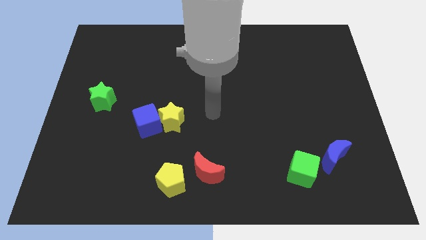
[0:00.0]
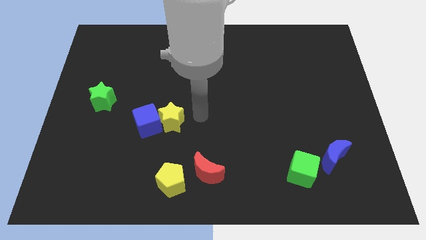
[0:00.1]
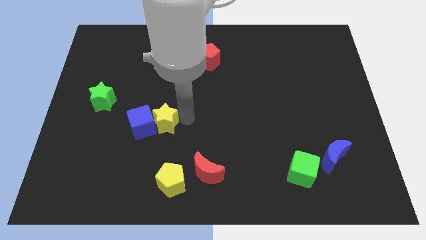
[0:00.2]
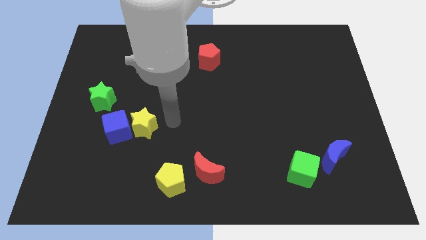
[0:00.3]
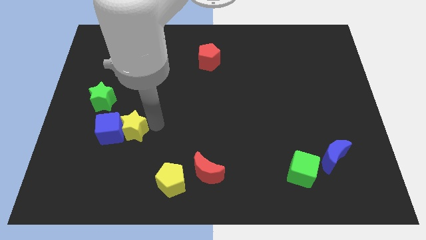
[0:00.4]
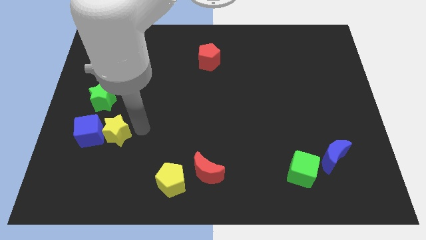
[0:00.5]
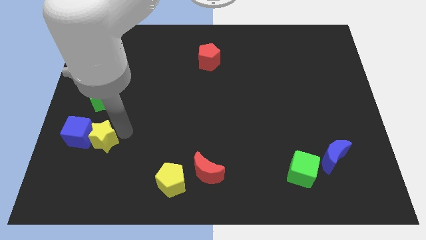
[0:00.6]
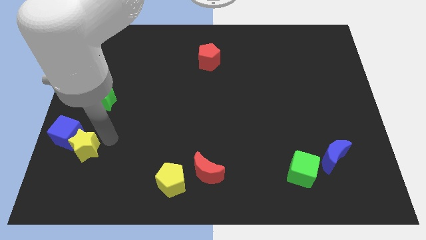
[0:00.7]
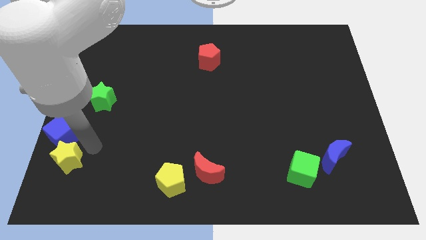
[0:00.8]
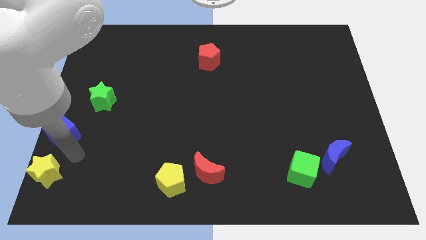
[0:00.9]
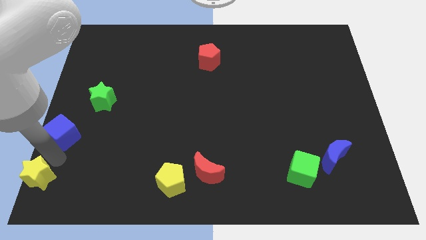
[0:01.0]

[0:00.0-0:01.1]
move the blue cube away from the yellow star

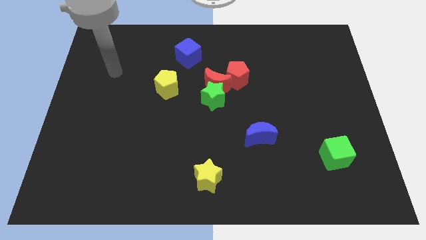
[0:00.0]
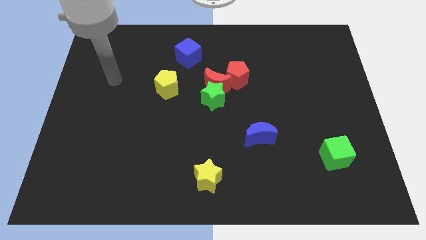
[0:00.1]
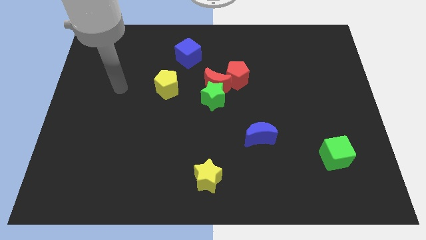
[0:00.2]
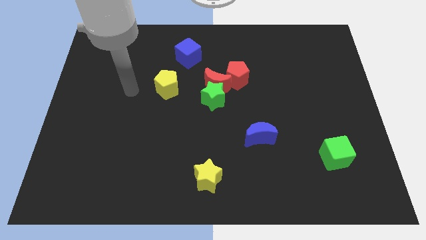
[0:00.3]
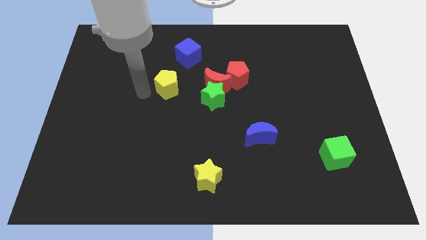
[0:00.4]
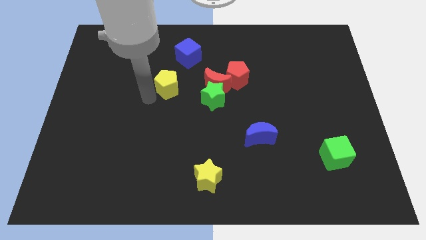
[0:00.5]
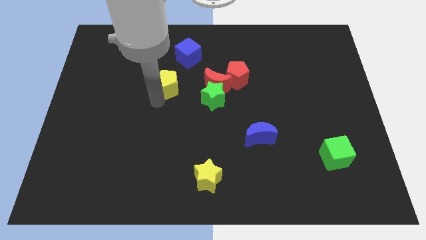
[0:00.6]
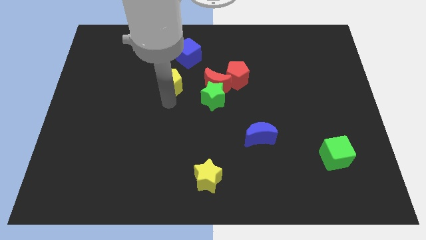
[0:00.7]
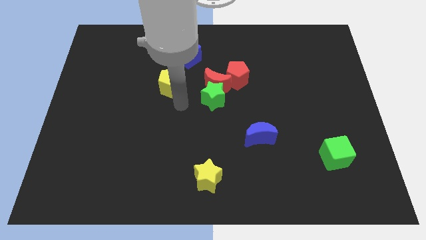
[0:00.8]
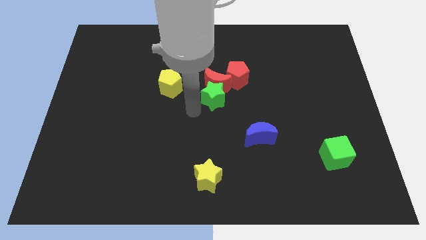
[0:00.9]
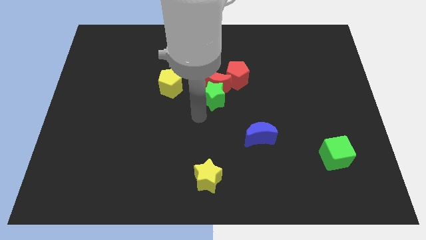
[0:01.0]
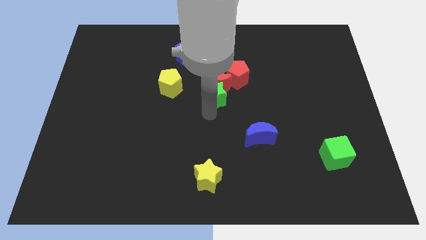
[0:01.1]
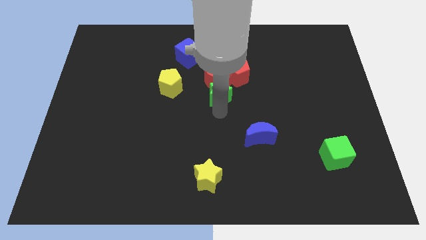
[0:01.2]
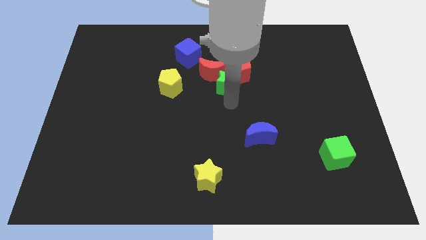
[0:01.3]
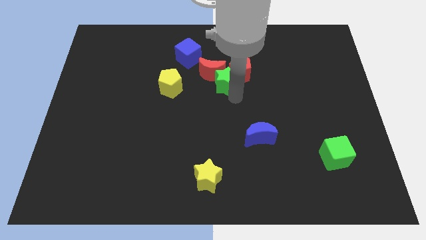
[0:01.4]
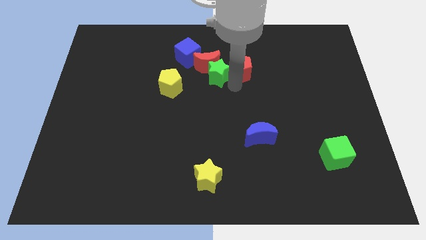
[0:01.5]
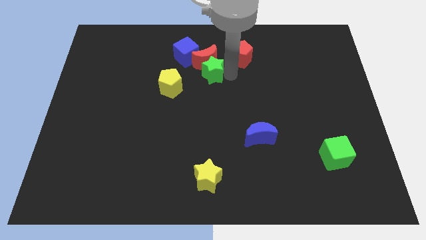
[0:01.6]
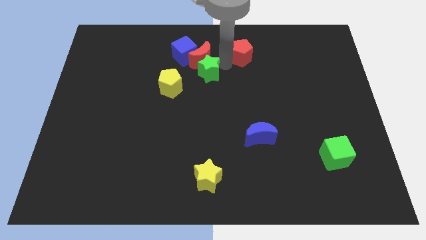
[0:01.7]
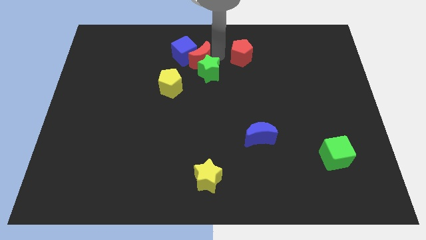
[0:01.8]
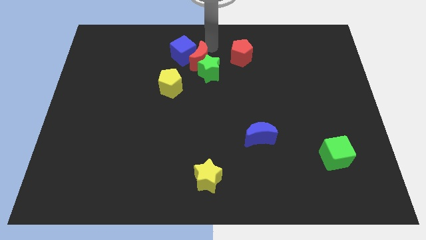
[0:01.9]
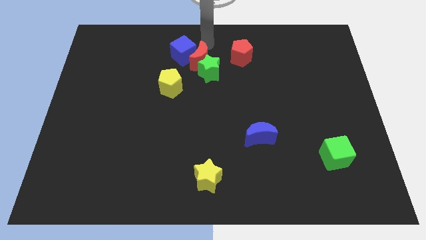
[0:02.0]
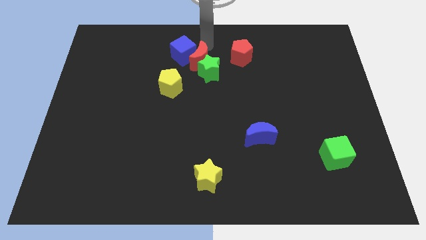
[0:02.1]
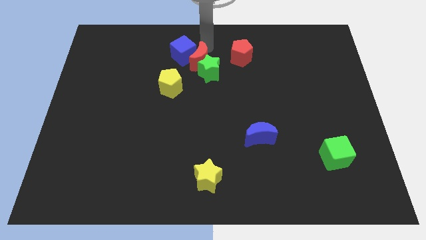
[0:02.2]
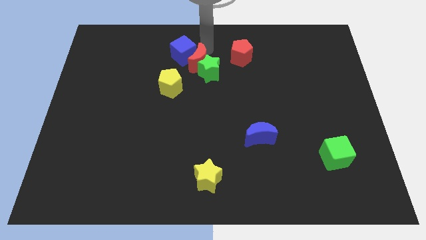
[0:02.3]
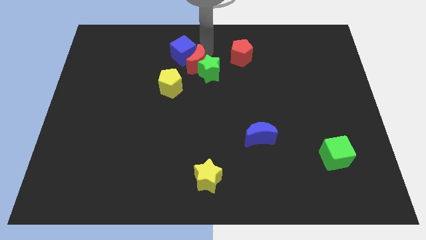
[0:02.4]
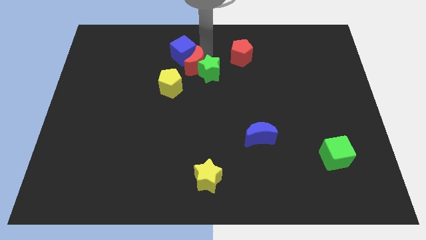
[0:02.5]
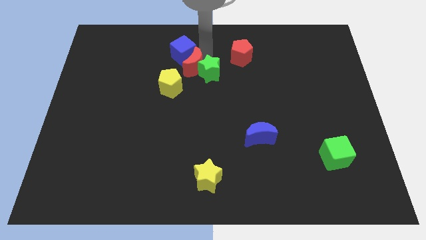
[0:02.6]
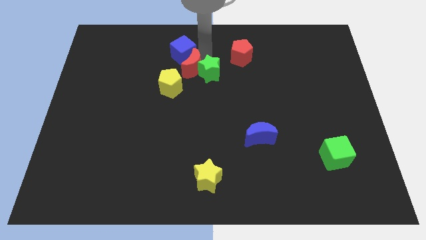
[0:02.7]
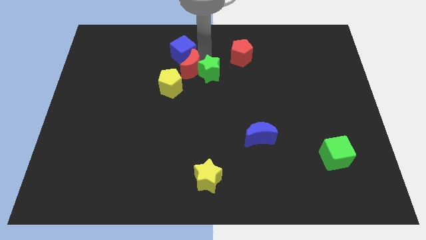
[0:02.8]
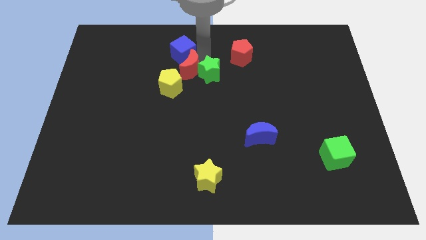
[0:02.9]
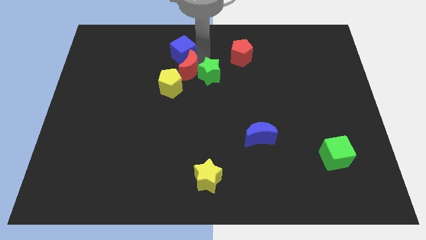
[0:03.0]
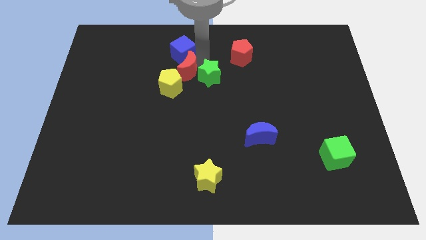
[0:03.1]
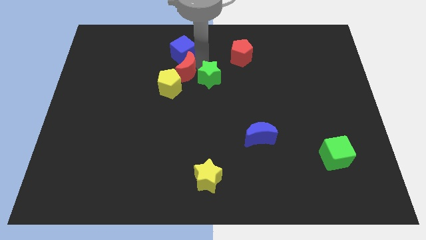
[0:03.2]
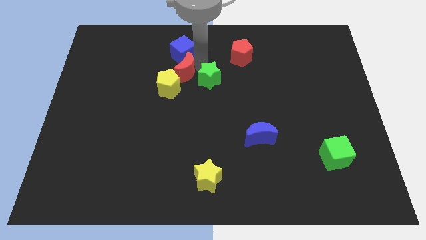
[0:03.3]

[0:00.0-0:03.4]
move the red moon away from the green star and red pentagon

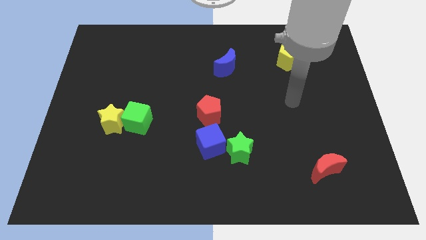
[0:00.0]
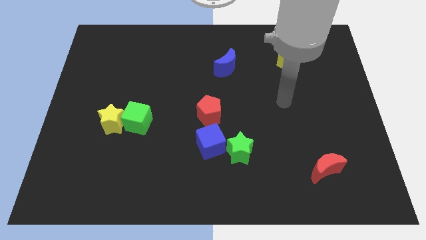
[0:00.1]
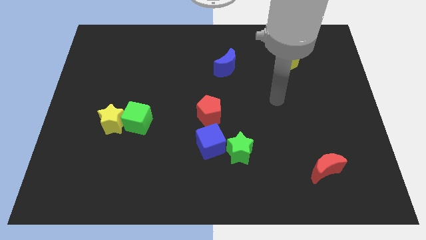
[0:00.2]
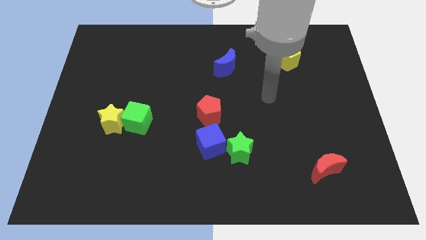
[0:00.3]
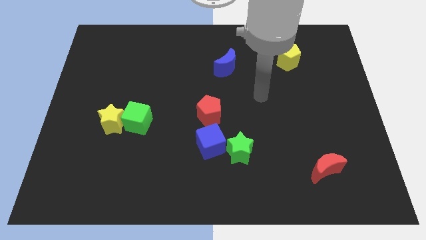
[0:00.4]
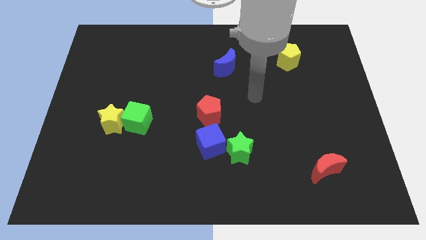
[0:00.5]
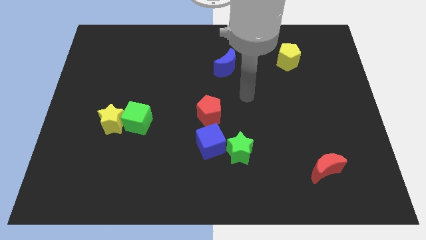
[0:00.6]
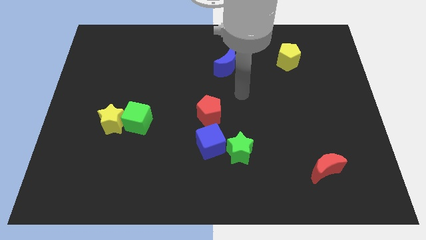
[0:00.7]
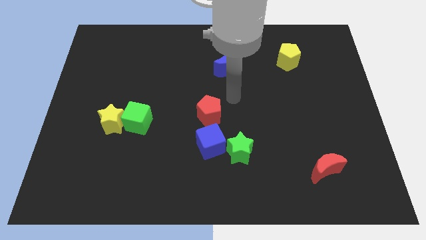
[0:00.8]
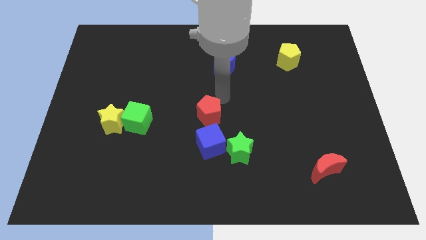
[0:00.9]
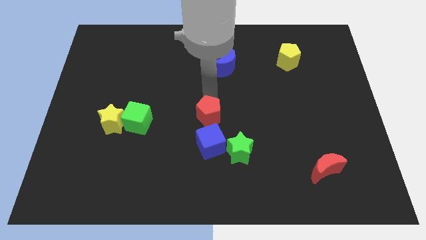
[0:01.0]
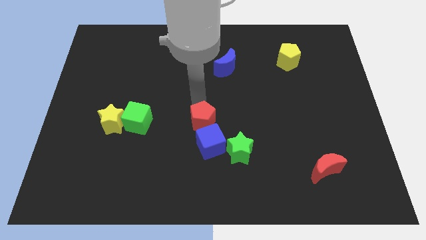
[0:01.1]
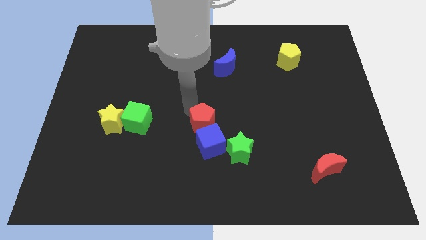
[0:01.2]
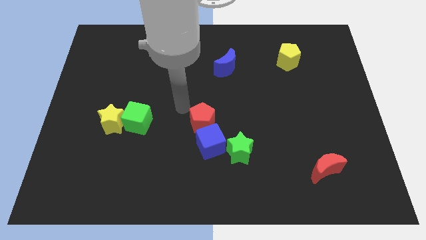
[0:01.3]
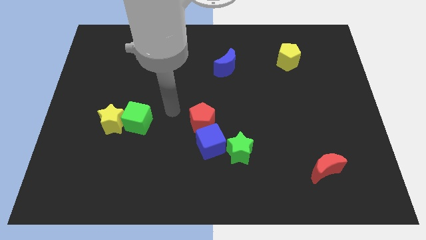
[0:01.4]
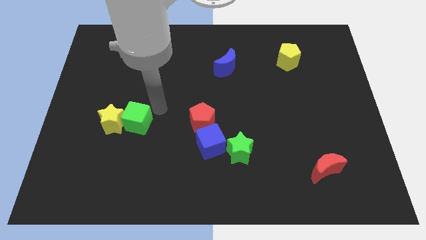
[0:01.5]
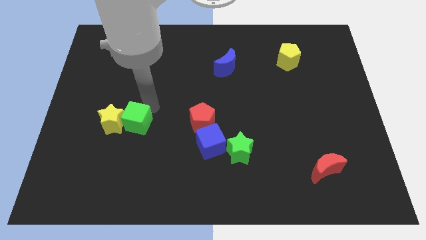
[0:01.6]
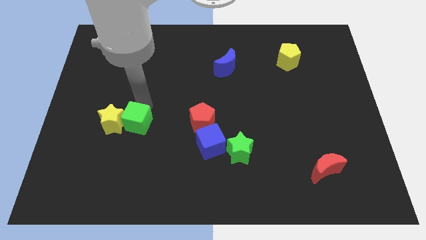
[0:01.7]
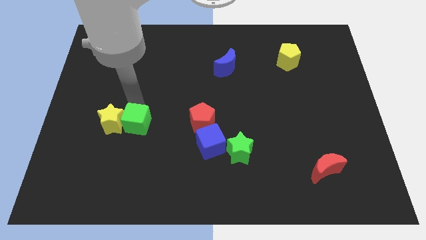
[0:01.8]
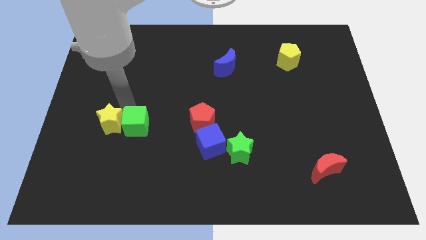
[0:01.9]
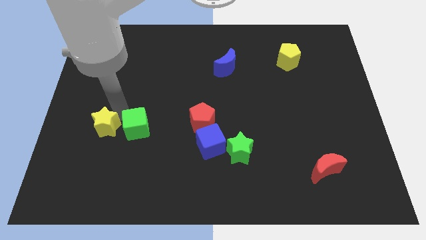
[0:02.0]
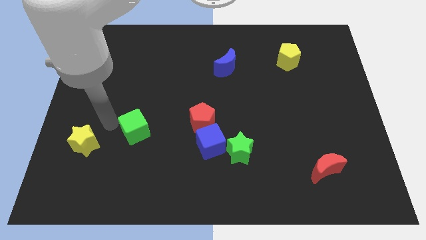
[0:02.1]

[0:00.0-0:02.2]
separate the green cube from the yellow star

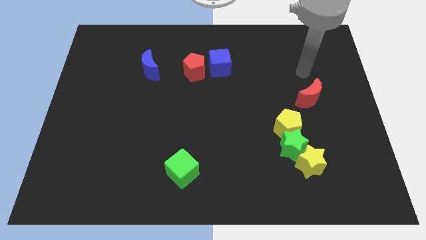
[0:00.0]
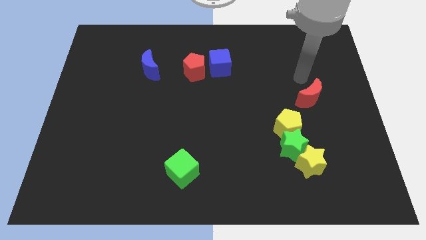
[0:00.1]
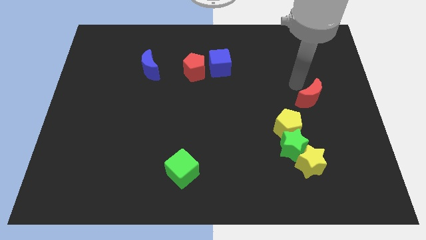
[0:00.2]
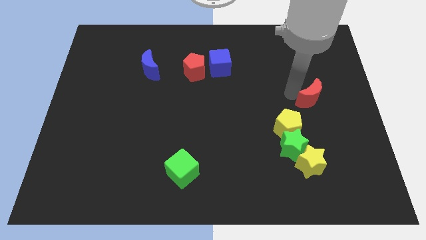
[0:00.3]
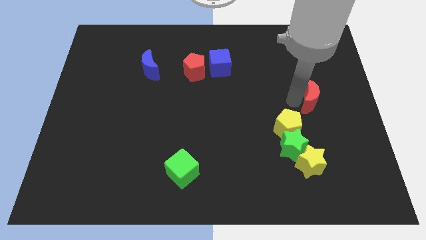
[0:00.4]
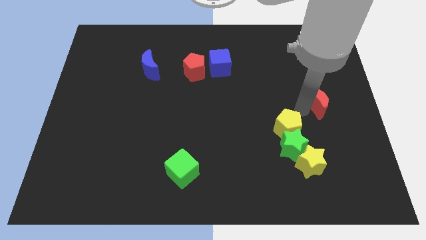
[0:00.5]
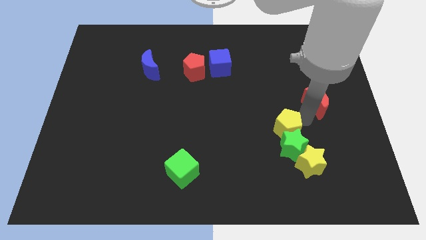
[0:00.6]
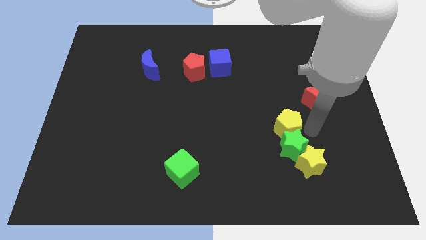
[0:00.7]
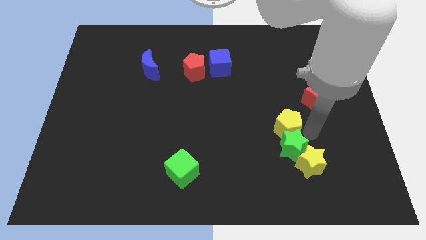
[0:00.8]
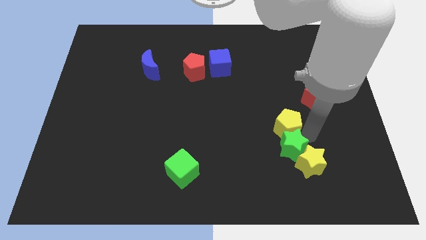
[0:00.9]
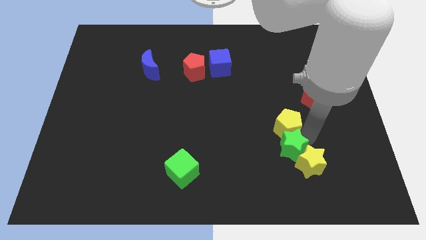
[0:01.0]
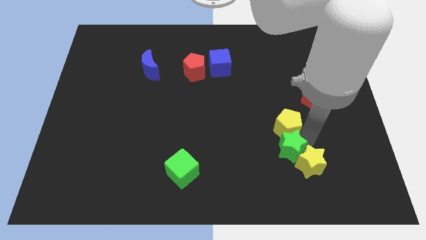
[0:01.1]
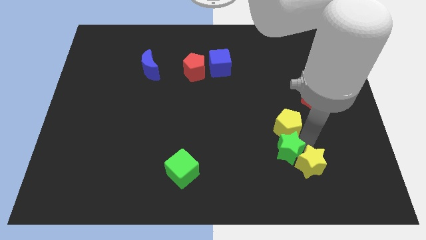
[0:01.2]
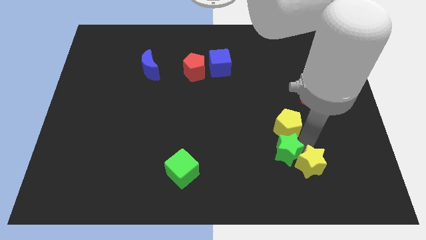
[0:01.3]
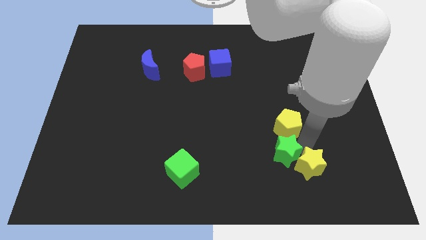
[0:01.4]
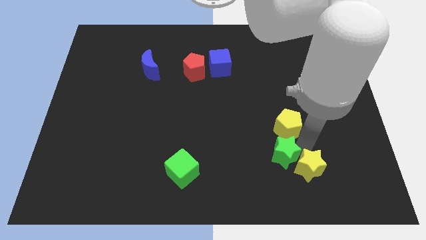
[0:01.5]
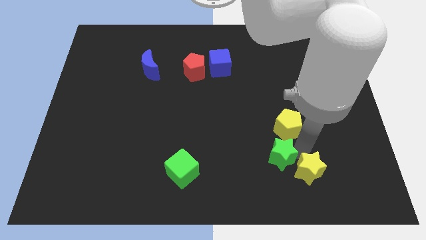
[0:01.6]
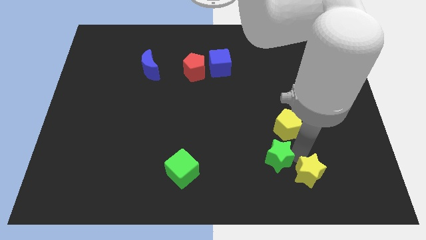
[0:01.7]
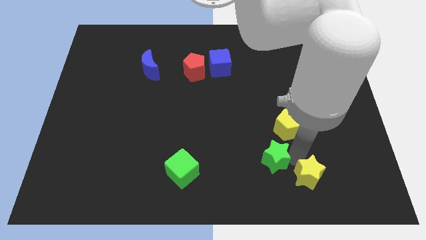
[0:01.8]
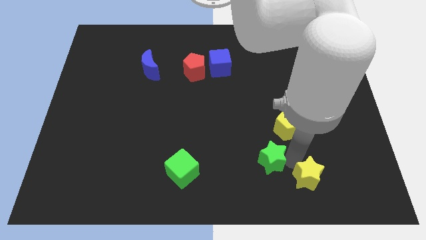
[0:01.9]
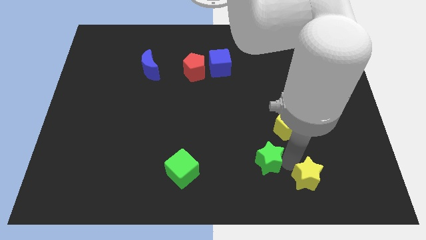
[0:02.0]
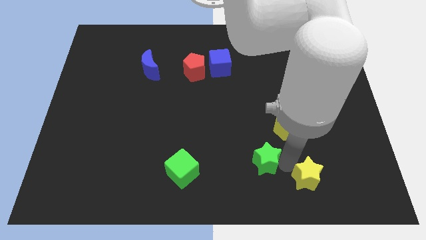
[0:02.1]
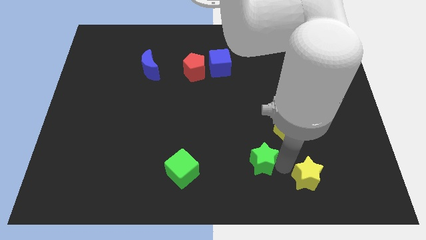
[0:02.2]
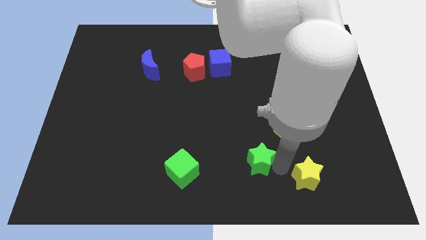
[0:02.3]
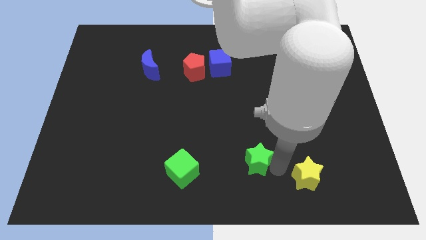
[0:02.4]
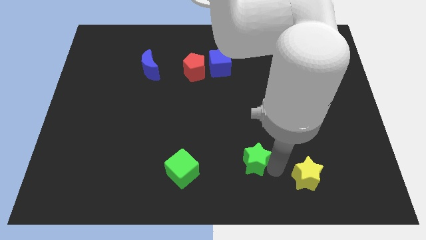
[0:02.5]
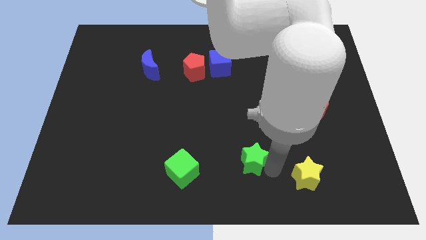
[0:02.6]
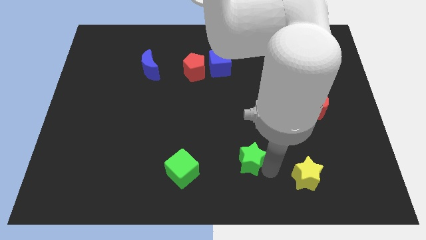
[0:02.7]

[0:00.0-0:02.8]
pull the green star apart from the yellow star and yellow pentagon
